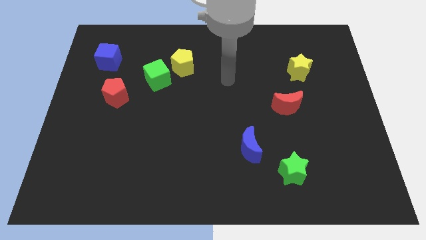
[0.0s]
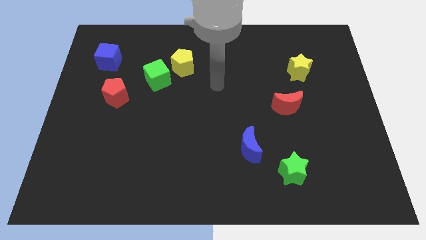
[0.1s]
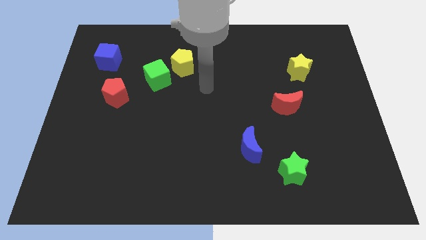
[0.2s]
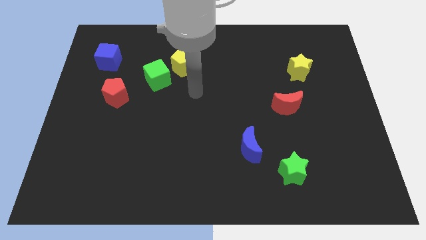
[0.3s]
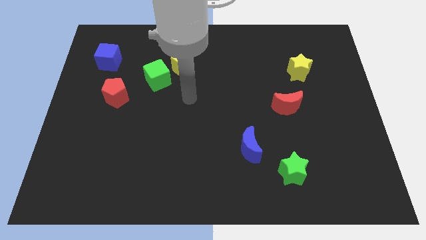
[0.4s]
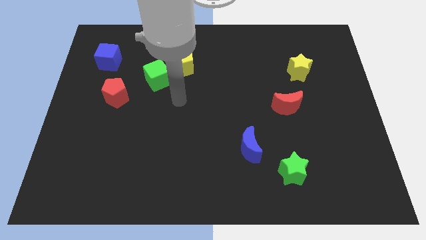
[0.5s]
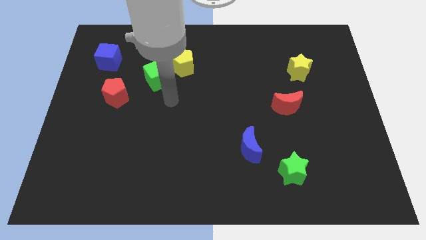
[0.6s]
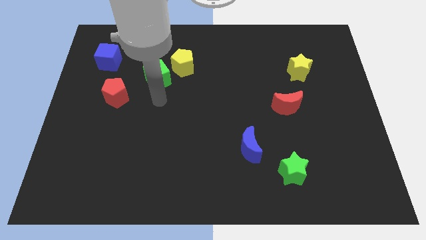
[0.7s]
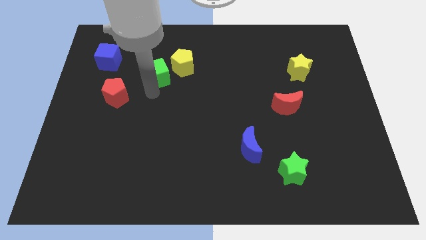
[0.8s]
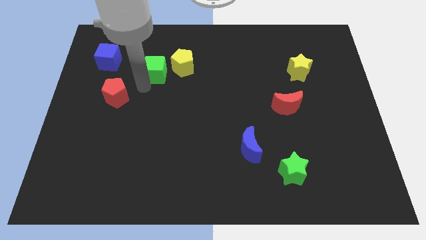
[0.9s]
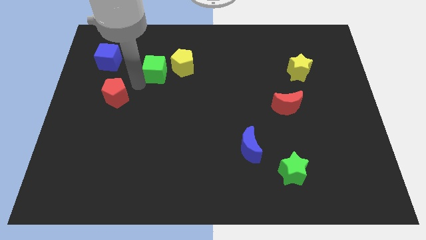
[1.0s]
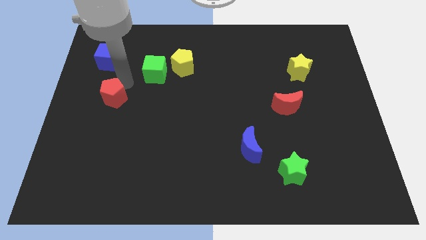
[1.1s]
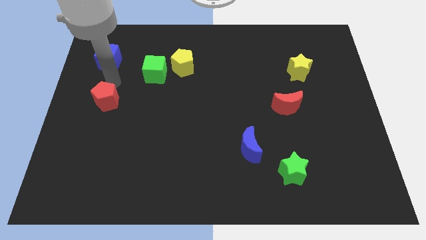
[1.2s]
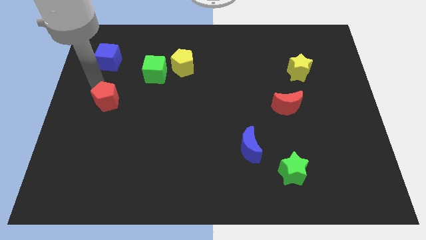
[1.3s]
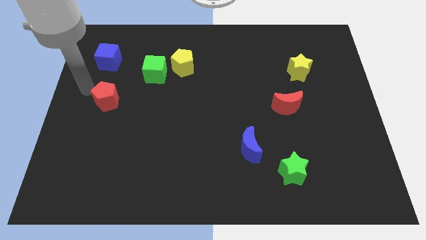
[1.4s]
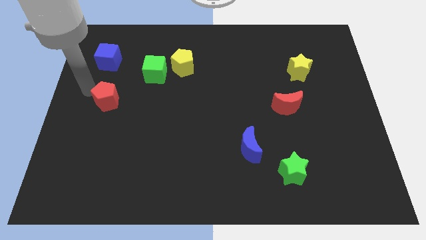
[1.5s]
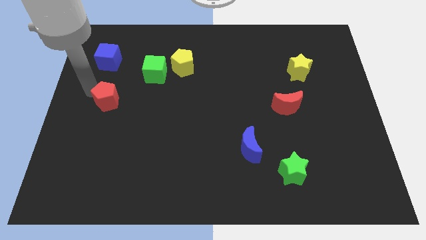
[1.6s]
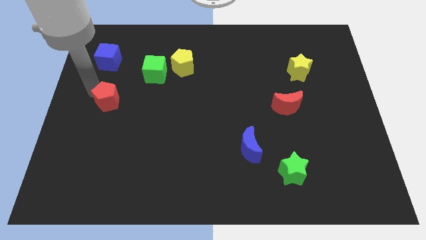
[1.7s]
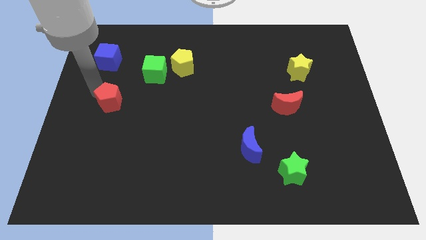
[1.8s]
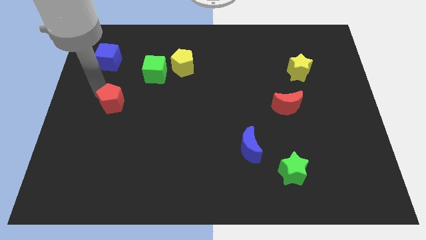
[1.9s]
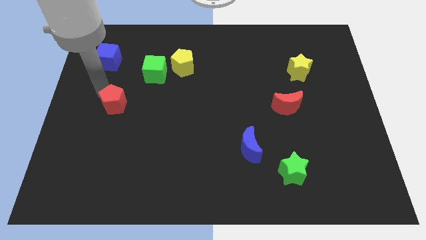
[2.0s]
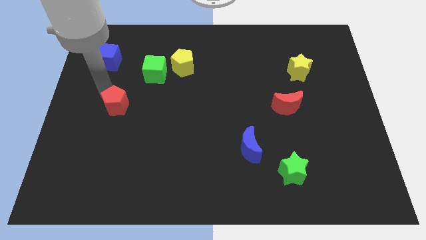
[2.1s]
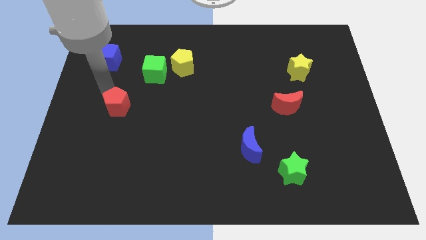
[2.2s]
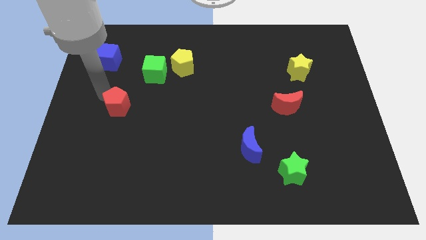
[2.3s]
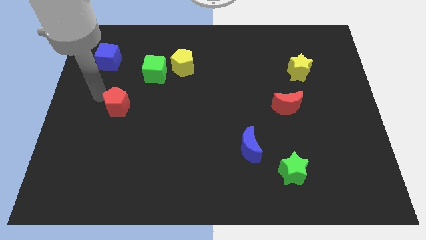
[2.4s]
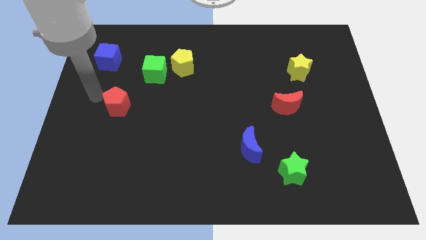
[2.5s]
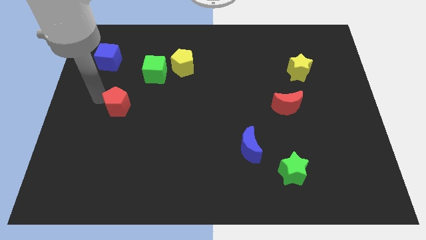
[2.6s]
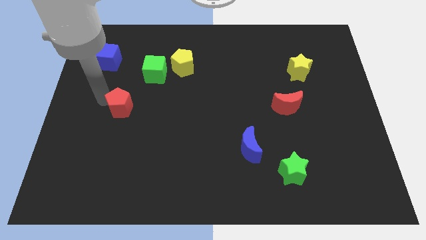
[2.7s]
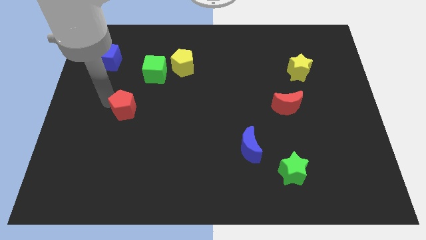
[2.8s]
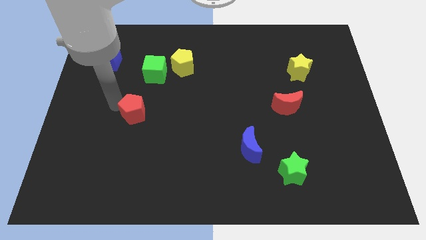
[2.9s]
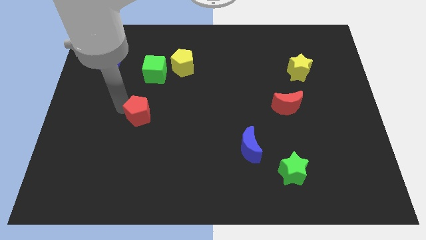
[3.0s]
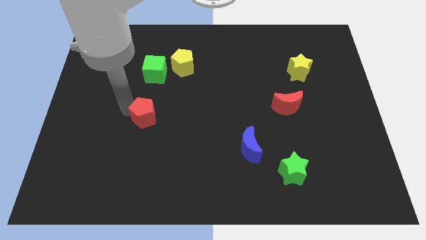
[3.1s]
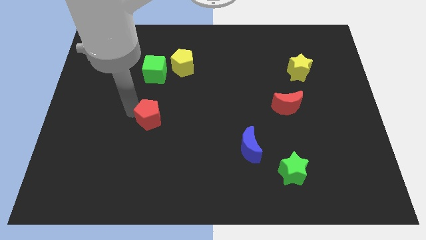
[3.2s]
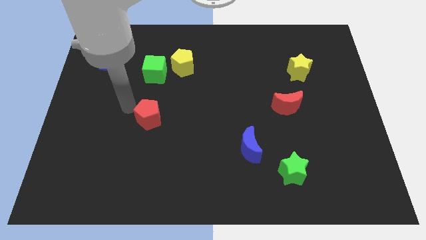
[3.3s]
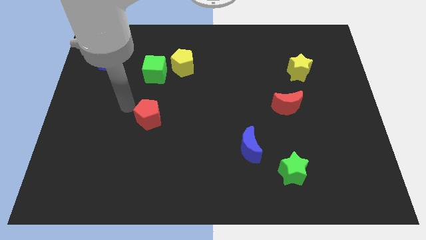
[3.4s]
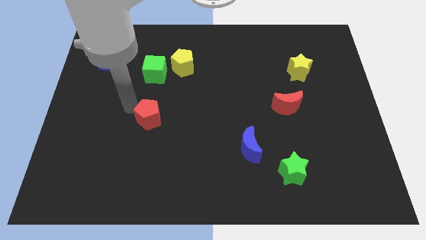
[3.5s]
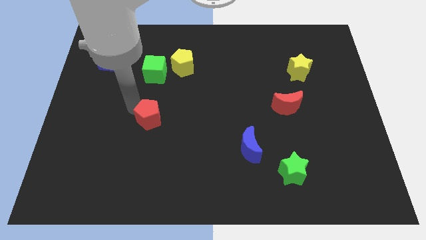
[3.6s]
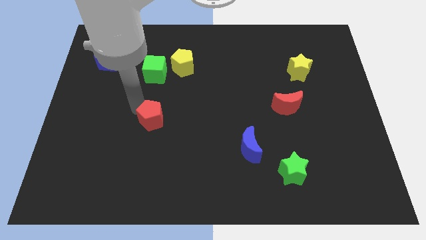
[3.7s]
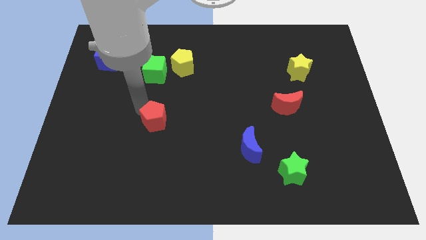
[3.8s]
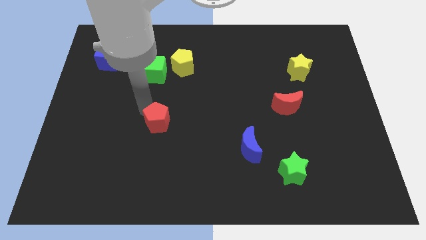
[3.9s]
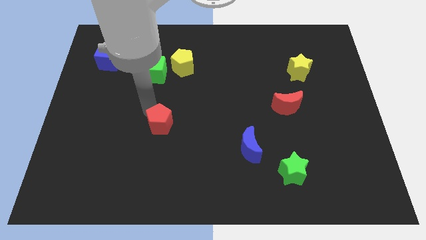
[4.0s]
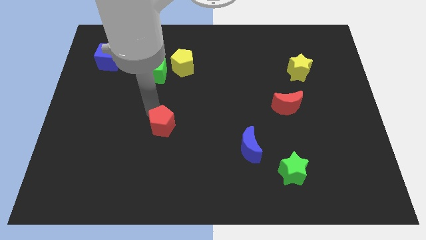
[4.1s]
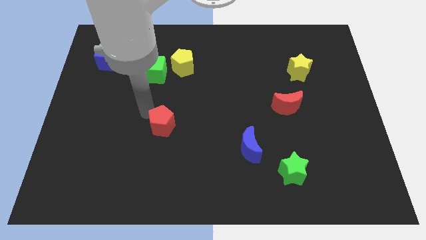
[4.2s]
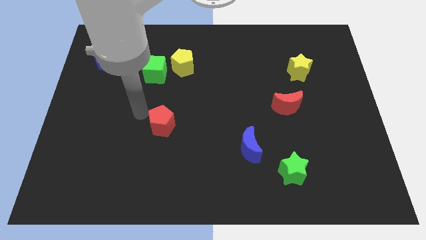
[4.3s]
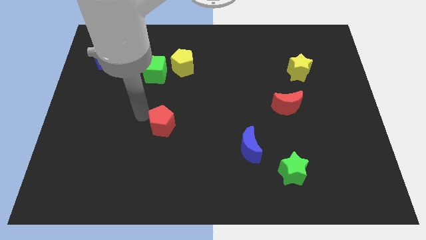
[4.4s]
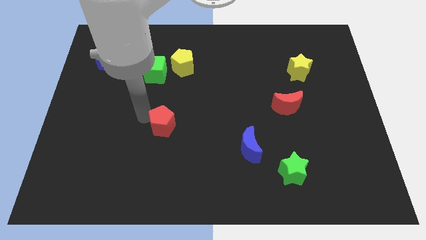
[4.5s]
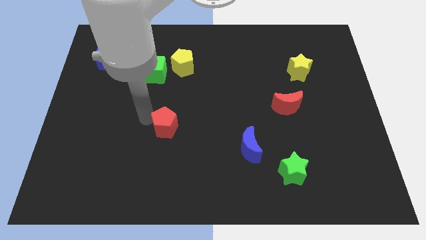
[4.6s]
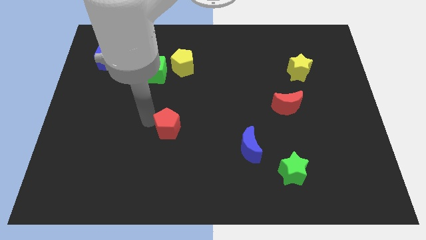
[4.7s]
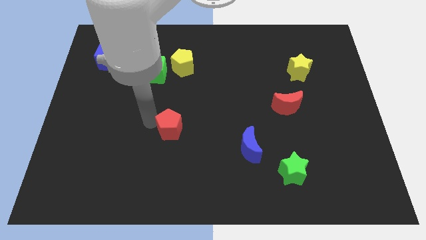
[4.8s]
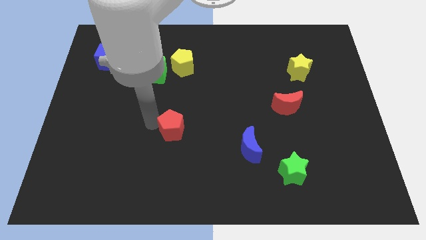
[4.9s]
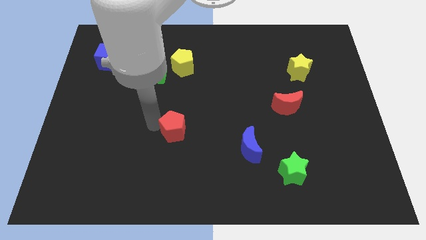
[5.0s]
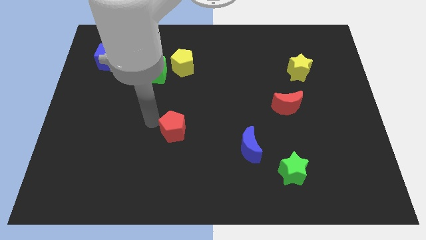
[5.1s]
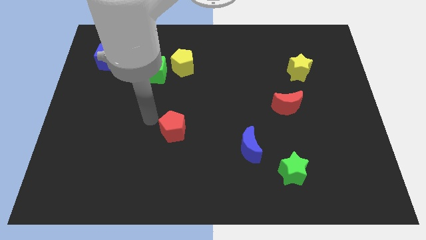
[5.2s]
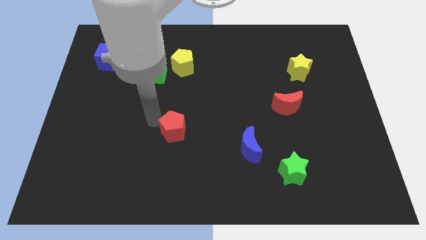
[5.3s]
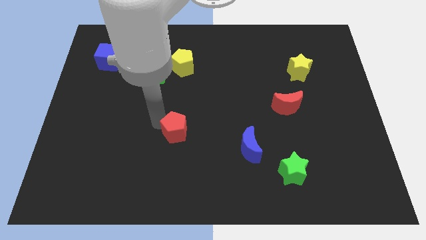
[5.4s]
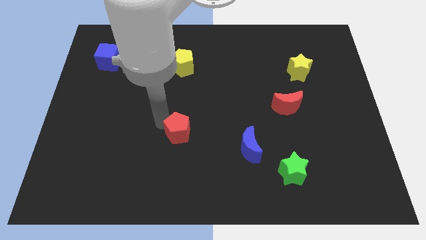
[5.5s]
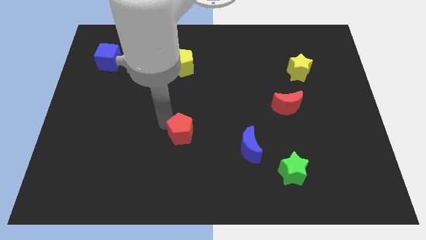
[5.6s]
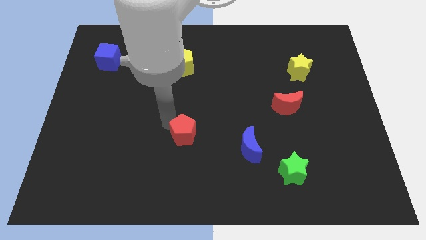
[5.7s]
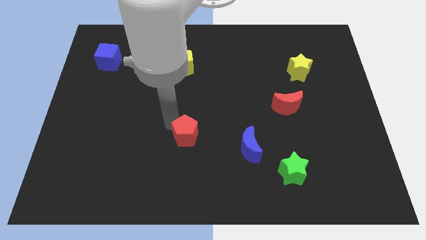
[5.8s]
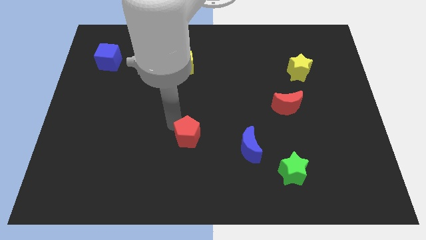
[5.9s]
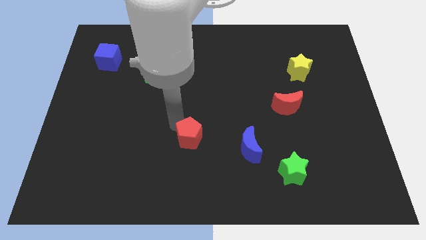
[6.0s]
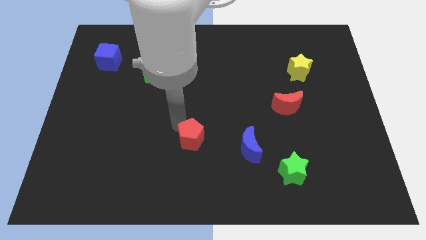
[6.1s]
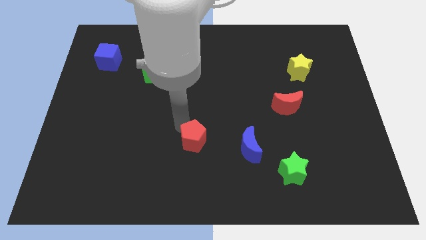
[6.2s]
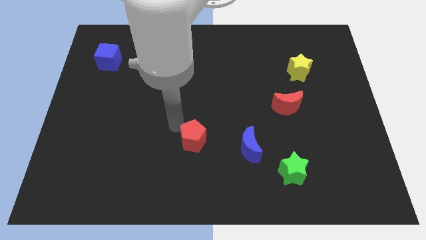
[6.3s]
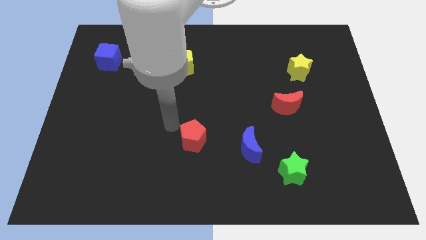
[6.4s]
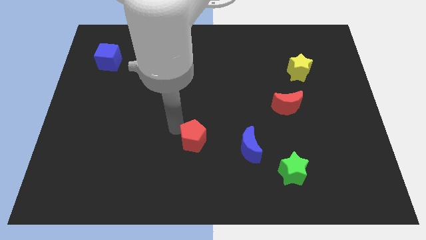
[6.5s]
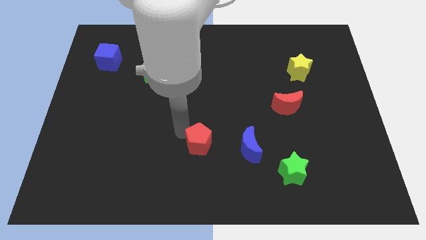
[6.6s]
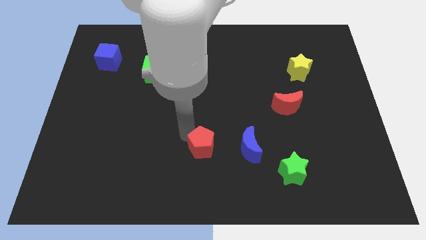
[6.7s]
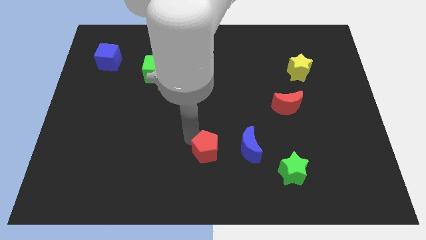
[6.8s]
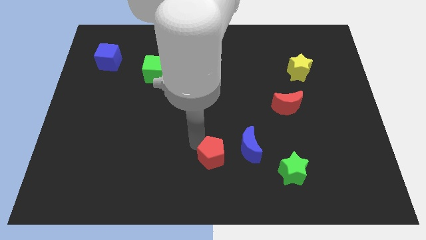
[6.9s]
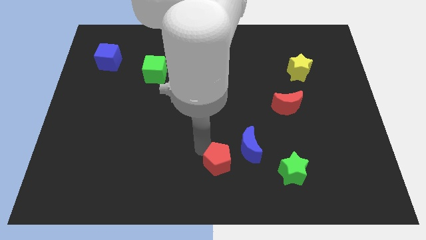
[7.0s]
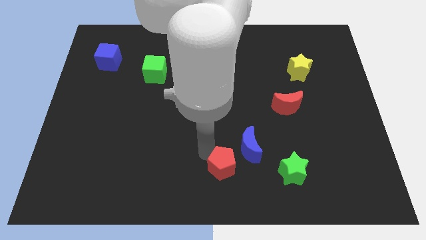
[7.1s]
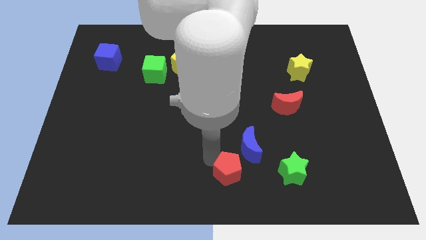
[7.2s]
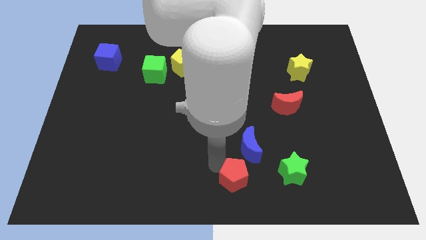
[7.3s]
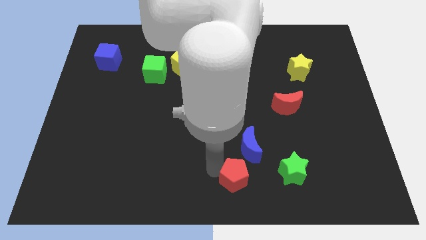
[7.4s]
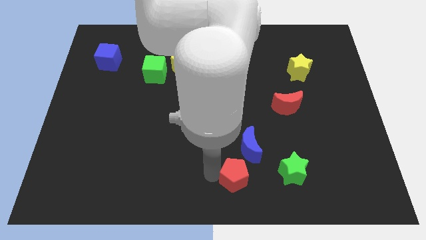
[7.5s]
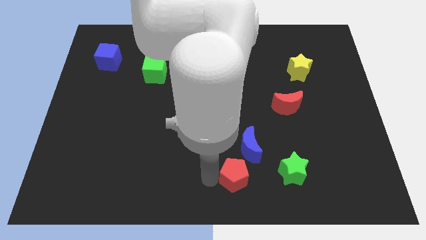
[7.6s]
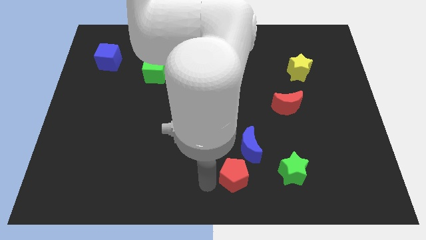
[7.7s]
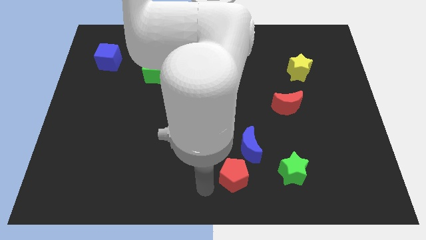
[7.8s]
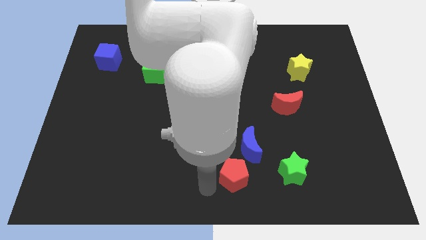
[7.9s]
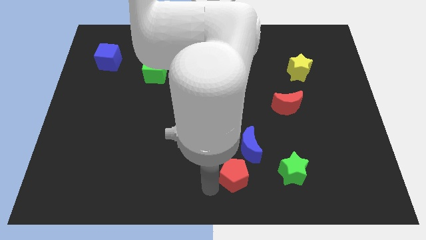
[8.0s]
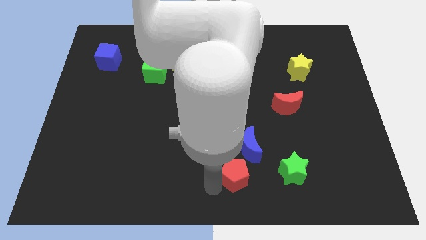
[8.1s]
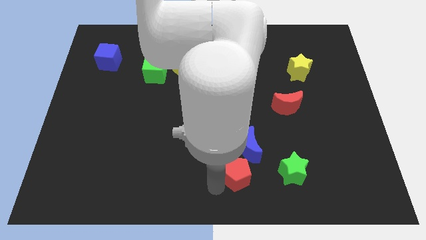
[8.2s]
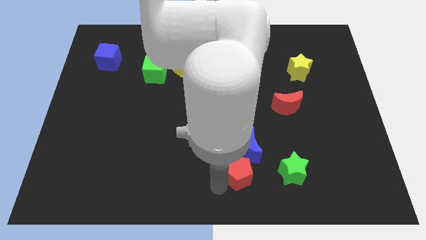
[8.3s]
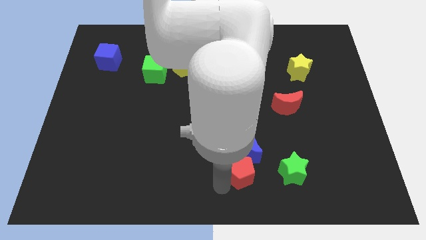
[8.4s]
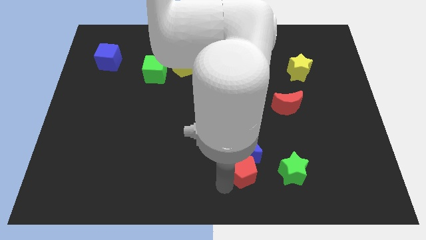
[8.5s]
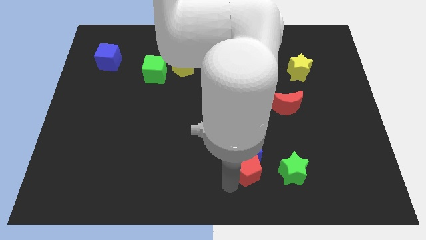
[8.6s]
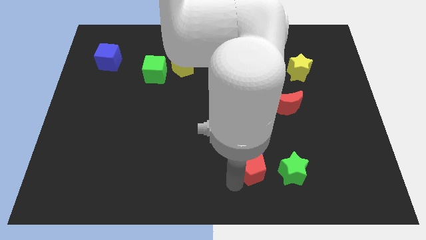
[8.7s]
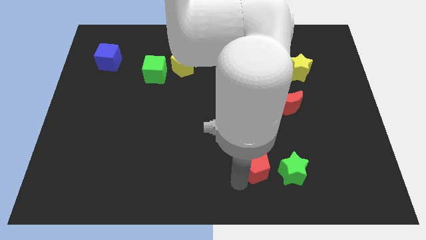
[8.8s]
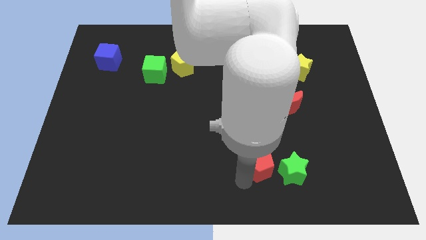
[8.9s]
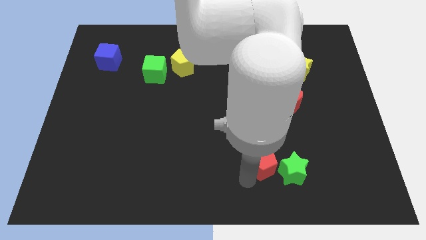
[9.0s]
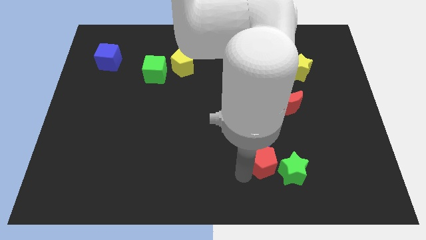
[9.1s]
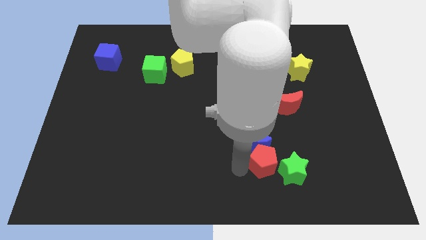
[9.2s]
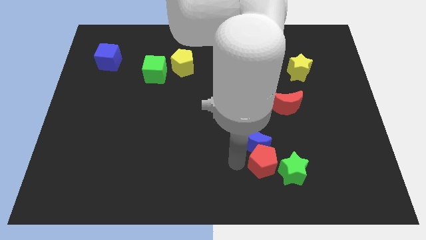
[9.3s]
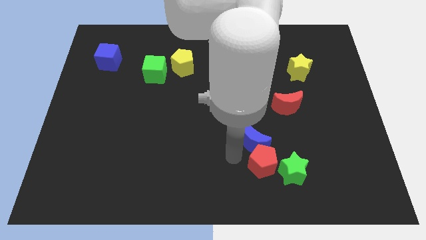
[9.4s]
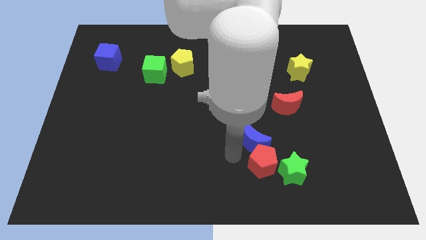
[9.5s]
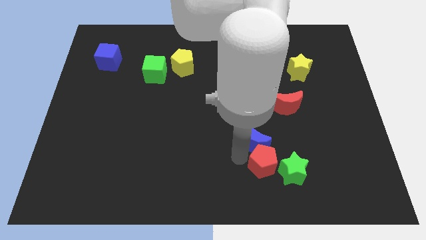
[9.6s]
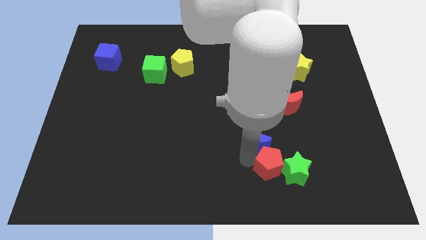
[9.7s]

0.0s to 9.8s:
slide the red pentagon close to the green star
